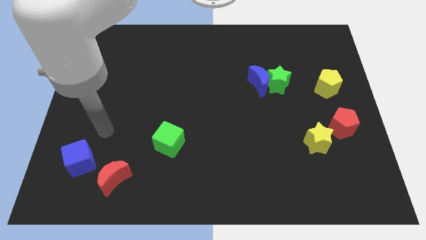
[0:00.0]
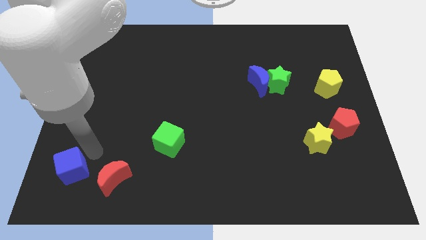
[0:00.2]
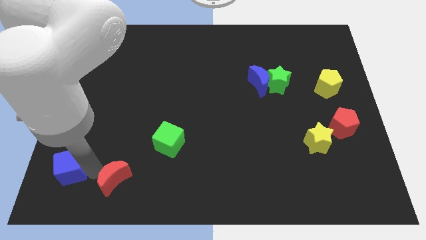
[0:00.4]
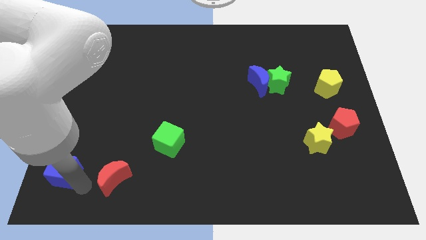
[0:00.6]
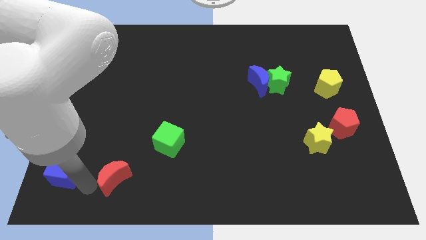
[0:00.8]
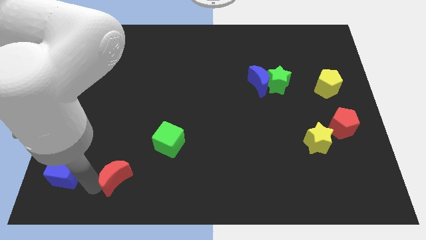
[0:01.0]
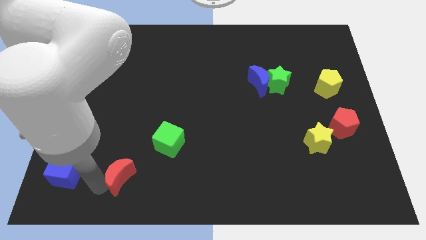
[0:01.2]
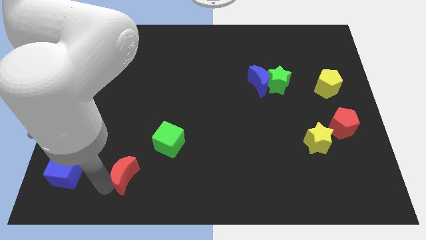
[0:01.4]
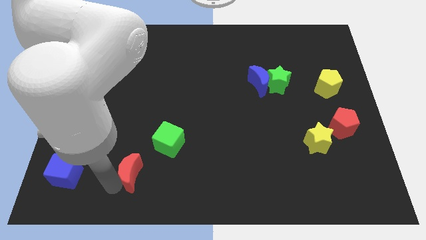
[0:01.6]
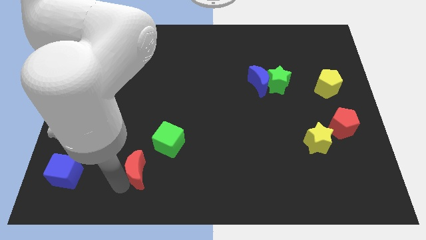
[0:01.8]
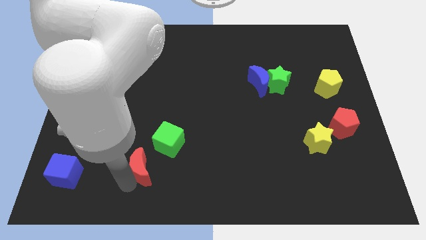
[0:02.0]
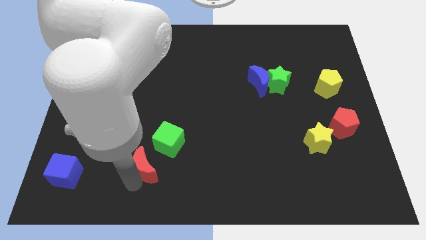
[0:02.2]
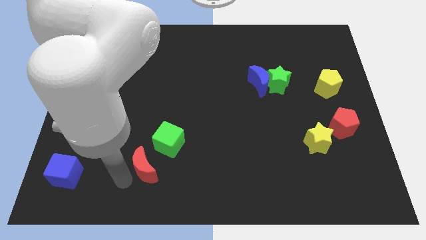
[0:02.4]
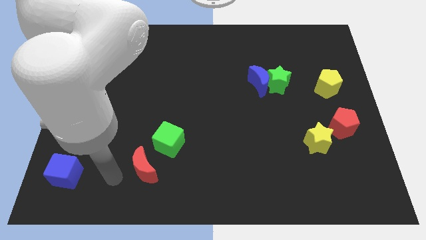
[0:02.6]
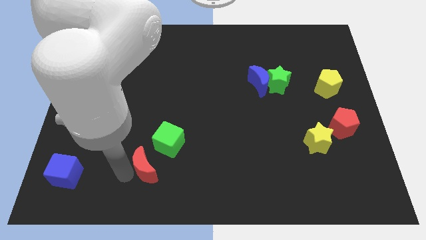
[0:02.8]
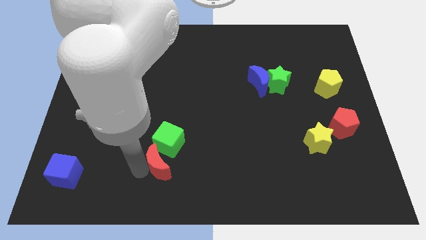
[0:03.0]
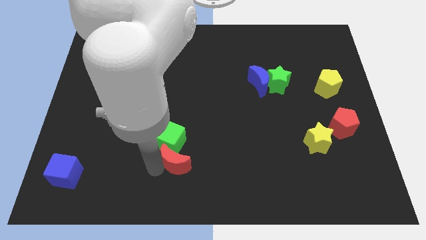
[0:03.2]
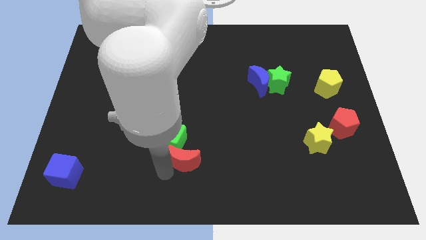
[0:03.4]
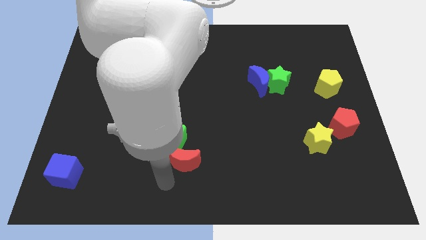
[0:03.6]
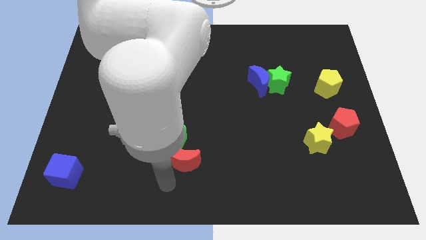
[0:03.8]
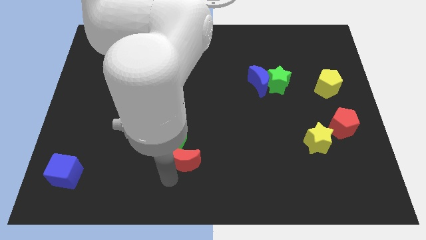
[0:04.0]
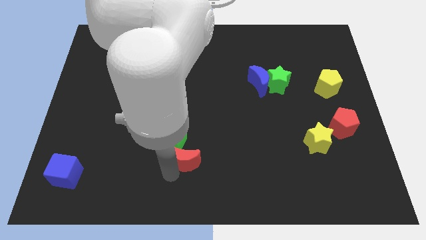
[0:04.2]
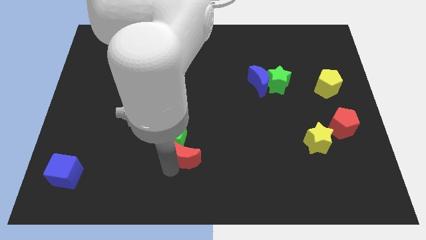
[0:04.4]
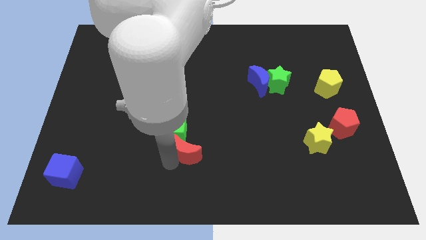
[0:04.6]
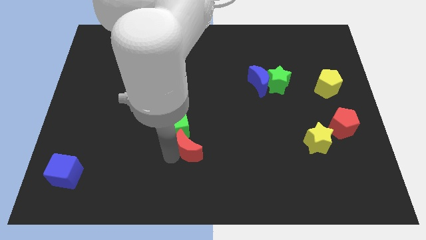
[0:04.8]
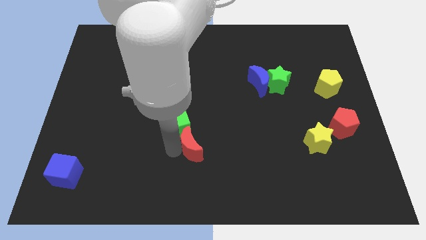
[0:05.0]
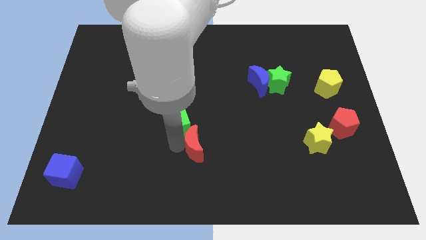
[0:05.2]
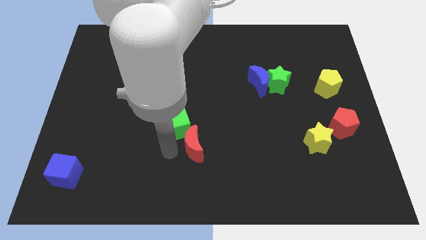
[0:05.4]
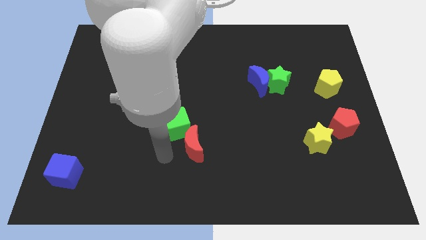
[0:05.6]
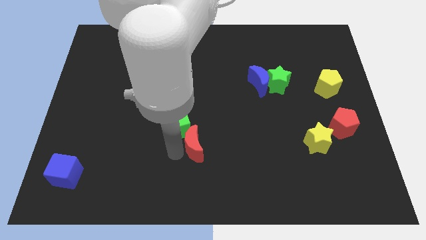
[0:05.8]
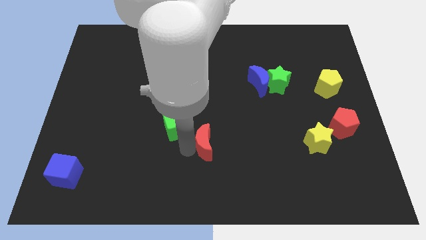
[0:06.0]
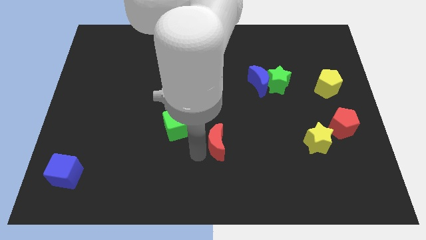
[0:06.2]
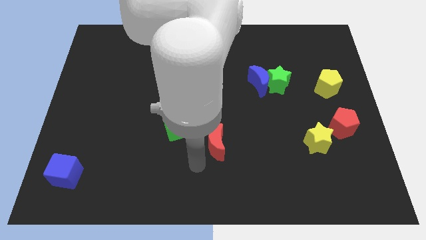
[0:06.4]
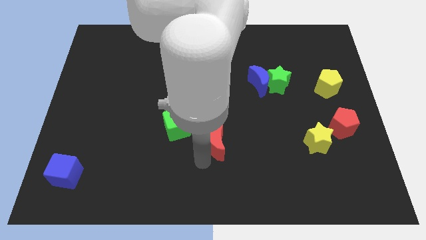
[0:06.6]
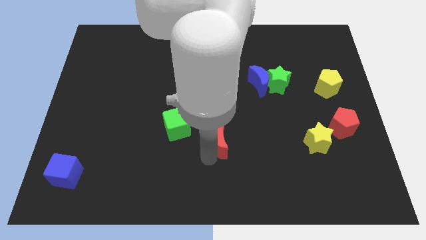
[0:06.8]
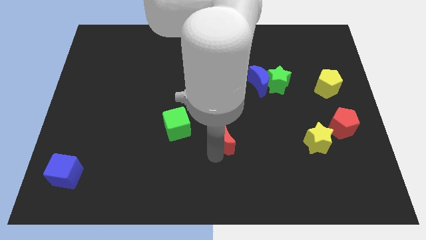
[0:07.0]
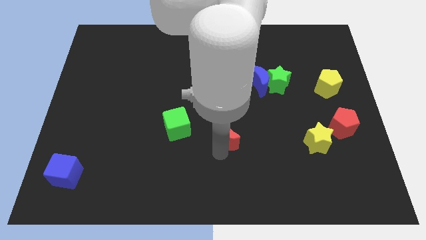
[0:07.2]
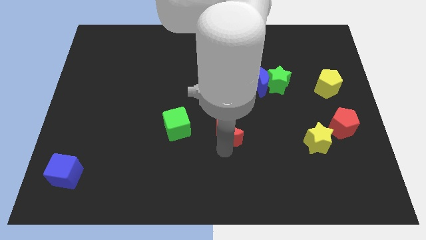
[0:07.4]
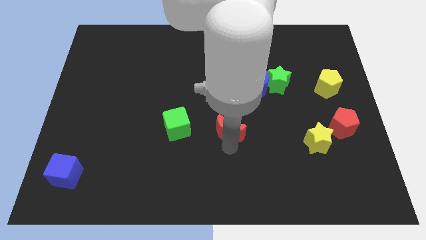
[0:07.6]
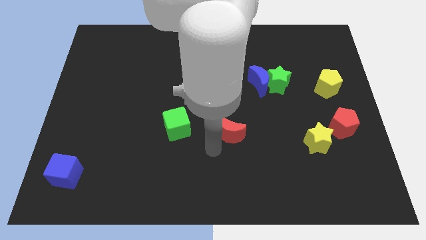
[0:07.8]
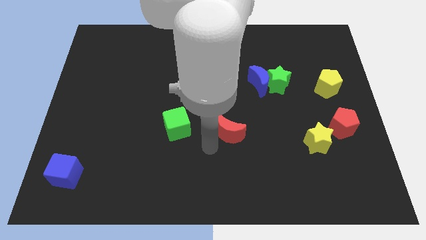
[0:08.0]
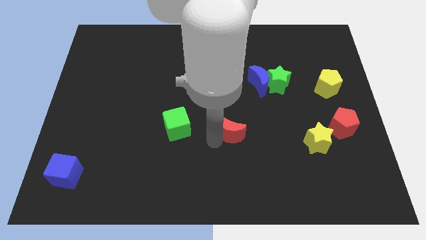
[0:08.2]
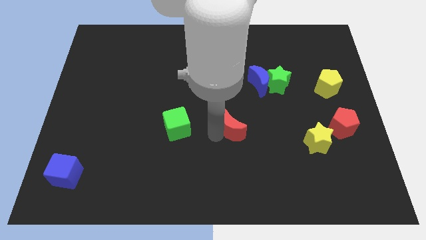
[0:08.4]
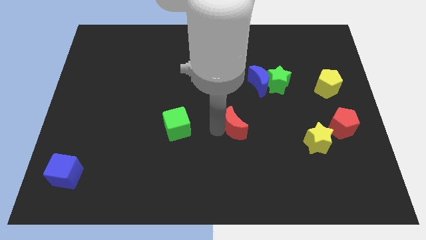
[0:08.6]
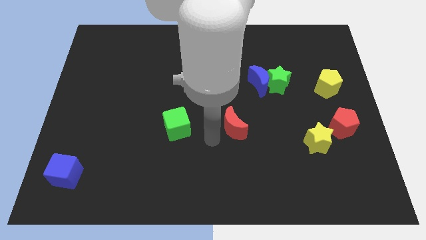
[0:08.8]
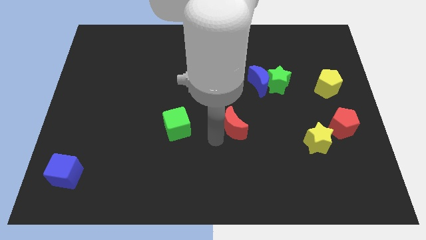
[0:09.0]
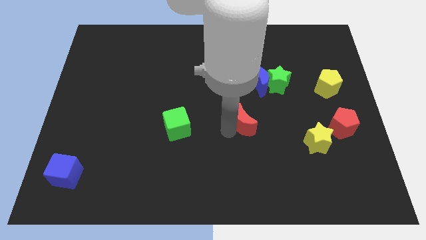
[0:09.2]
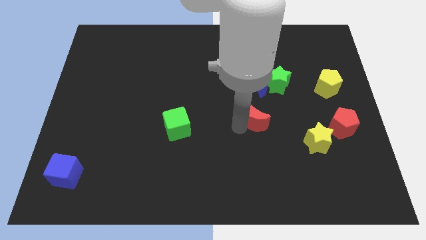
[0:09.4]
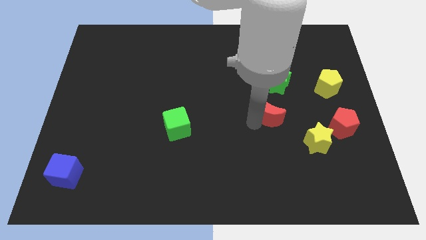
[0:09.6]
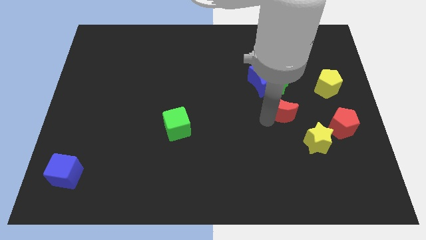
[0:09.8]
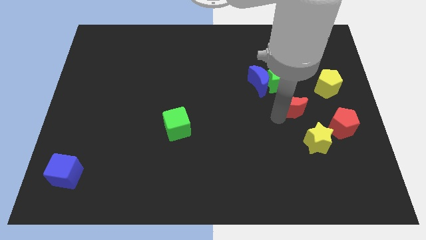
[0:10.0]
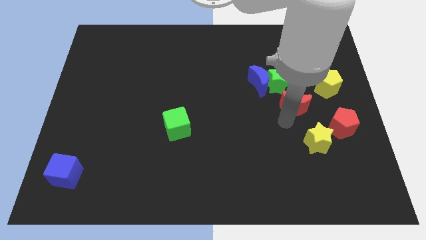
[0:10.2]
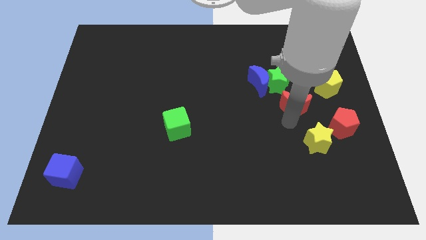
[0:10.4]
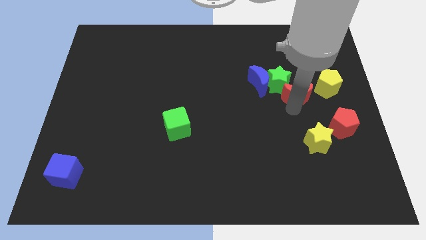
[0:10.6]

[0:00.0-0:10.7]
put the red moon to the right of the blue moon

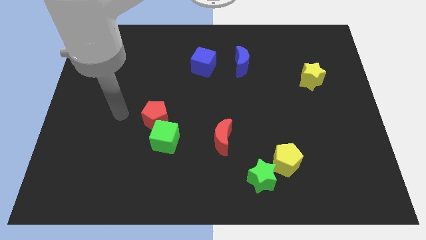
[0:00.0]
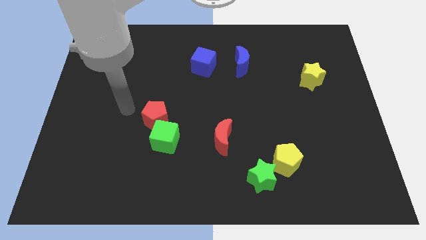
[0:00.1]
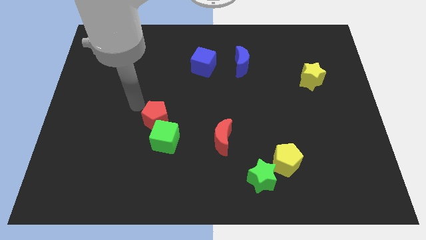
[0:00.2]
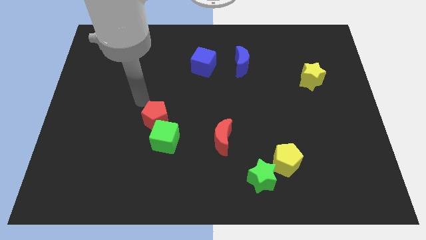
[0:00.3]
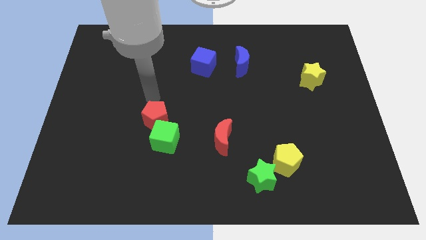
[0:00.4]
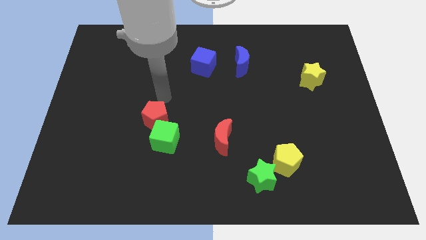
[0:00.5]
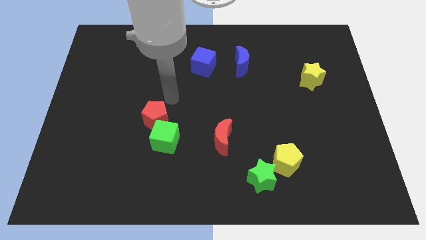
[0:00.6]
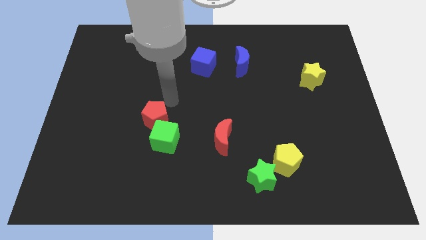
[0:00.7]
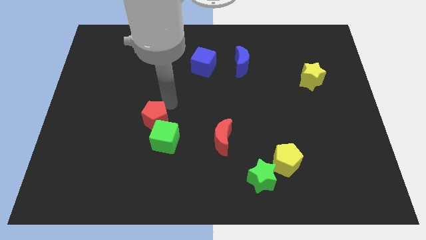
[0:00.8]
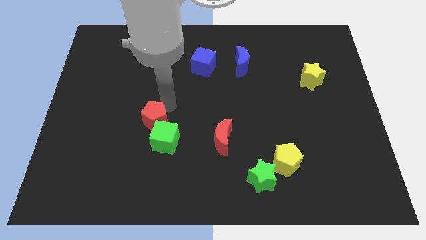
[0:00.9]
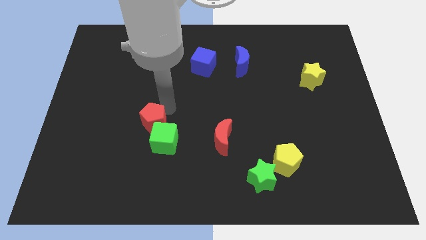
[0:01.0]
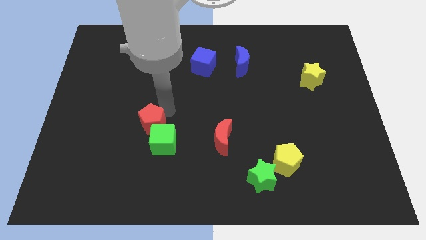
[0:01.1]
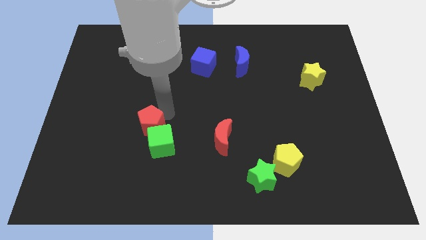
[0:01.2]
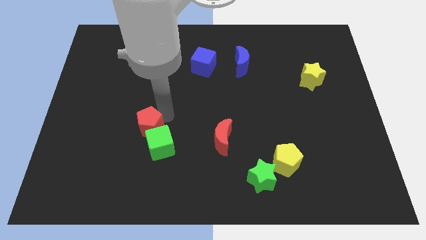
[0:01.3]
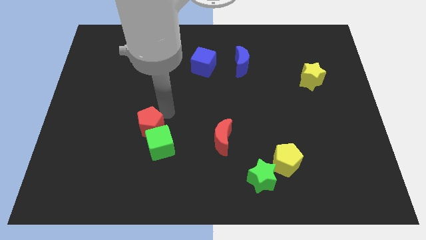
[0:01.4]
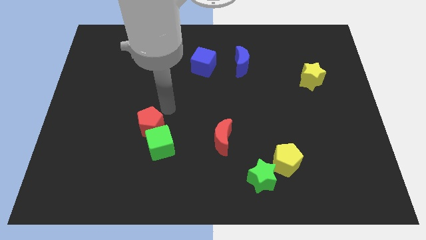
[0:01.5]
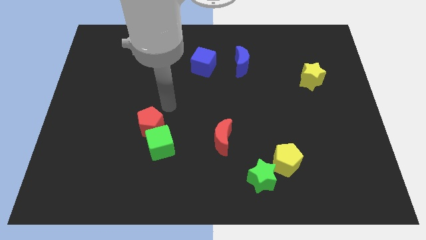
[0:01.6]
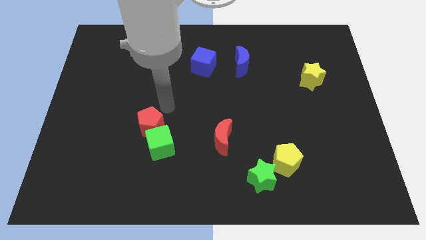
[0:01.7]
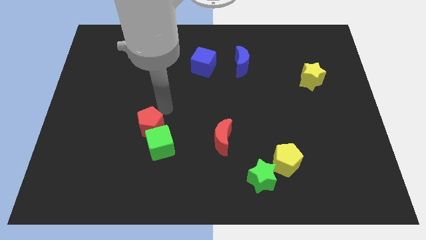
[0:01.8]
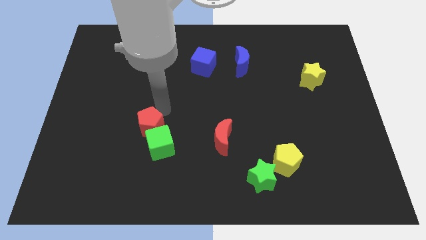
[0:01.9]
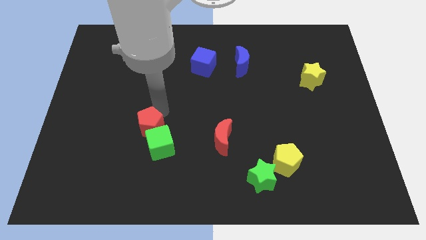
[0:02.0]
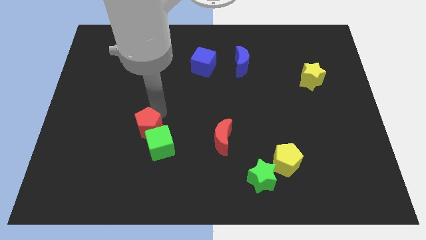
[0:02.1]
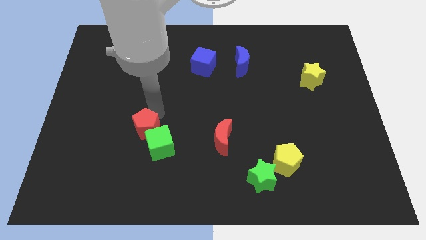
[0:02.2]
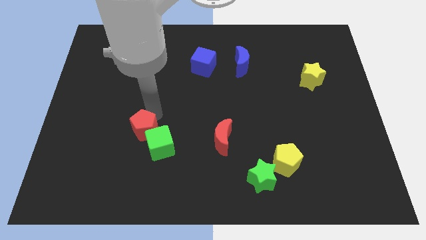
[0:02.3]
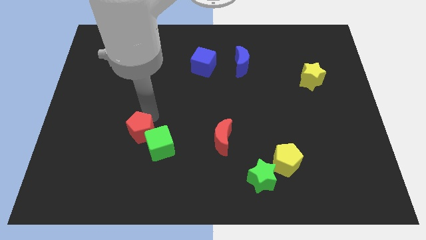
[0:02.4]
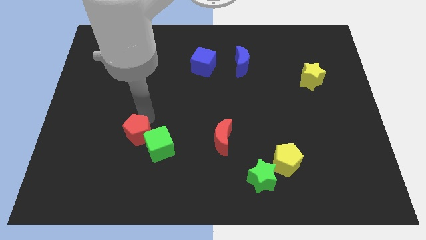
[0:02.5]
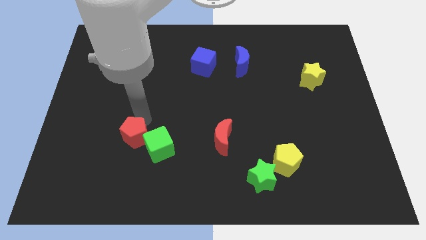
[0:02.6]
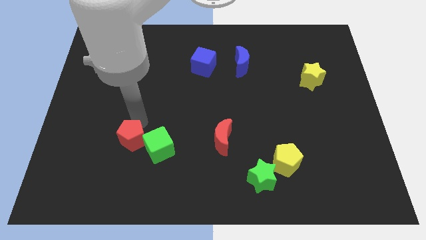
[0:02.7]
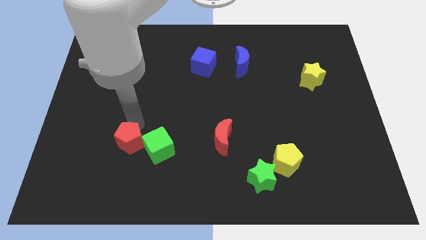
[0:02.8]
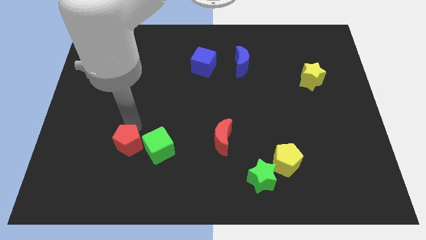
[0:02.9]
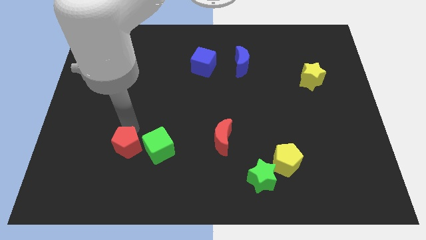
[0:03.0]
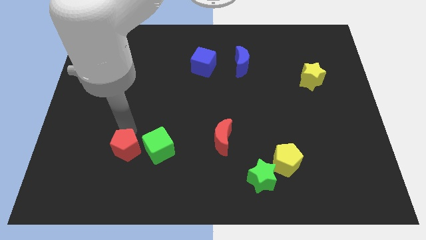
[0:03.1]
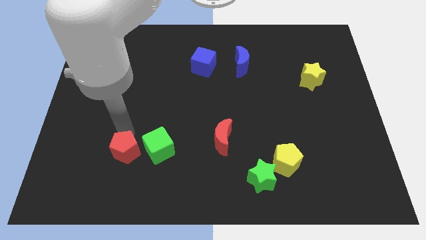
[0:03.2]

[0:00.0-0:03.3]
push the red pentagon to the bottom left of the green cube
